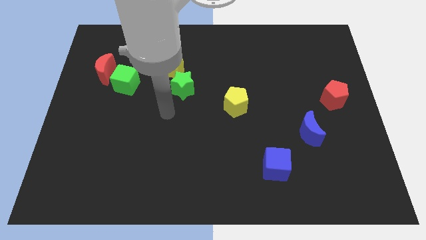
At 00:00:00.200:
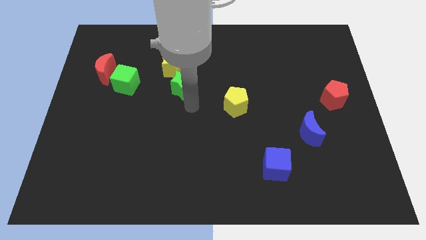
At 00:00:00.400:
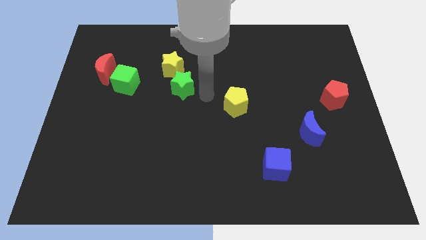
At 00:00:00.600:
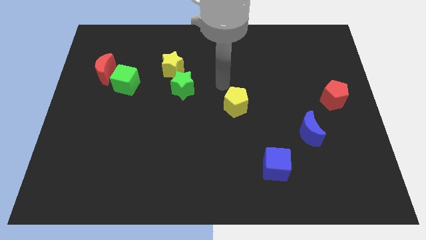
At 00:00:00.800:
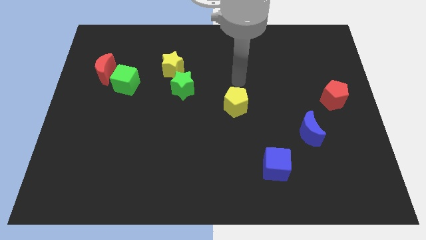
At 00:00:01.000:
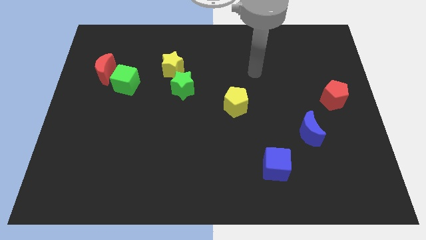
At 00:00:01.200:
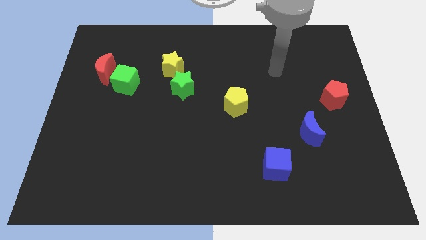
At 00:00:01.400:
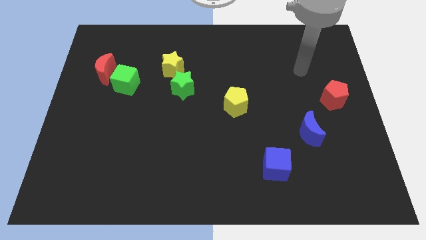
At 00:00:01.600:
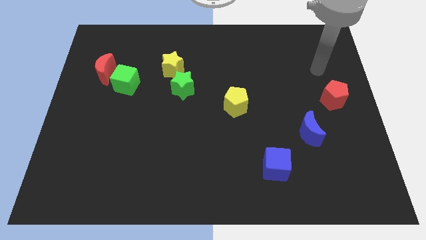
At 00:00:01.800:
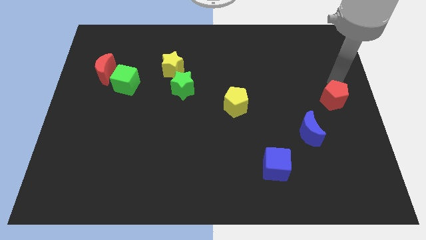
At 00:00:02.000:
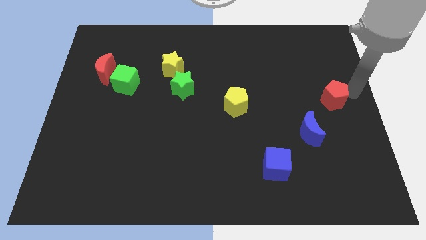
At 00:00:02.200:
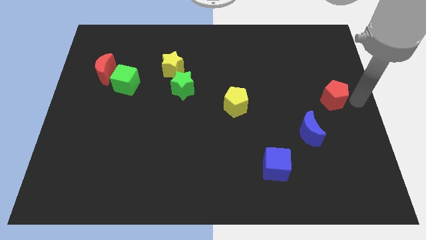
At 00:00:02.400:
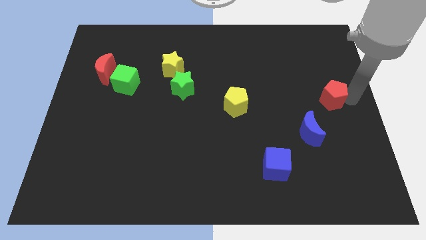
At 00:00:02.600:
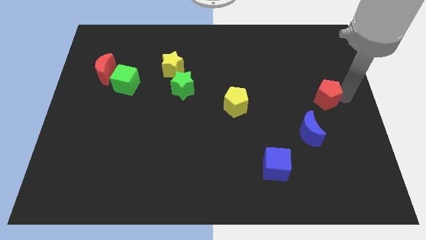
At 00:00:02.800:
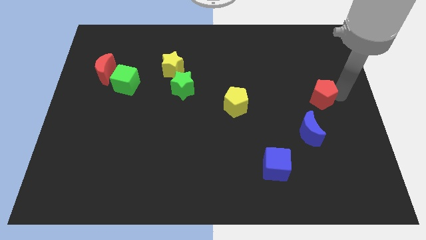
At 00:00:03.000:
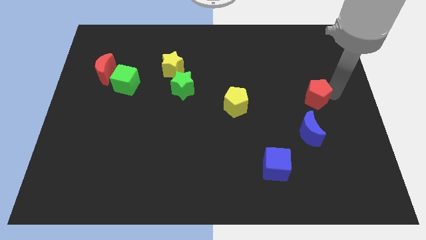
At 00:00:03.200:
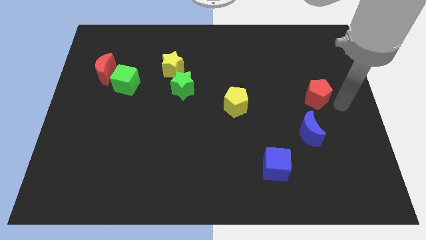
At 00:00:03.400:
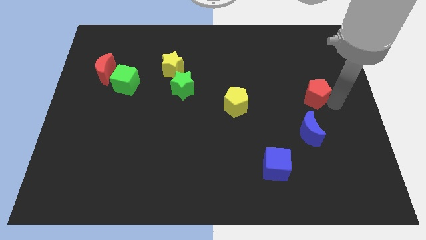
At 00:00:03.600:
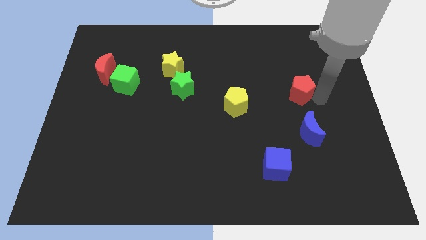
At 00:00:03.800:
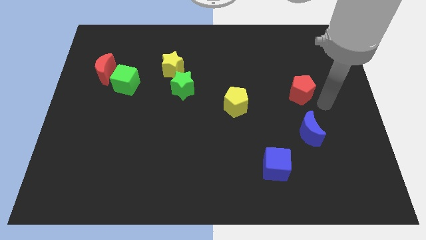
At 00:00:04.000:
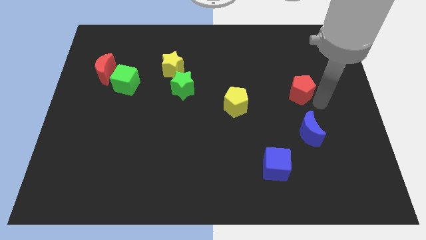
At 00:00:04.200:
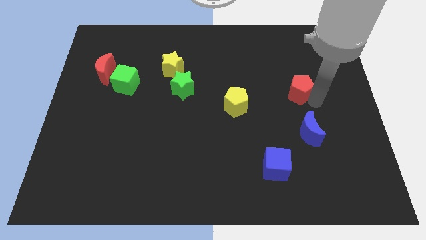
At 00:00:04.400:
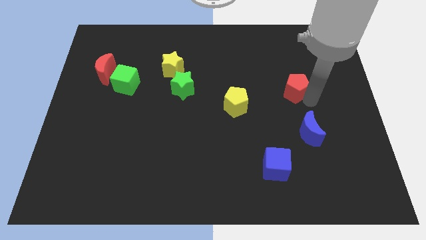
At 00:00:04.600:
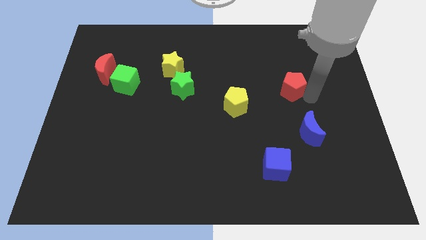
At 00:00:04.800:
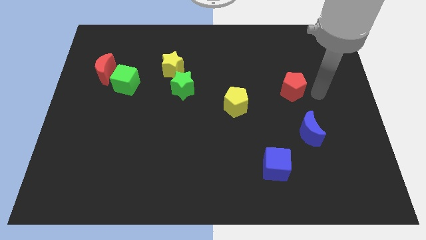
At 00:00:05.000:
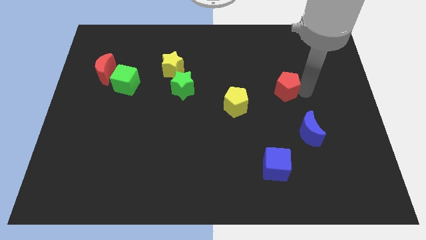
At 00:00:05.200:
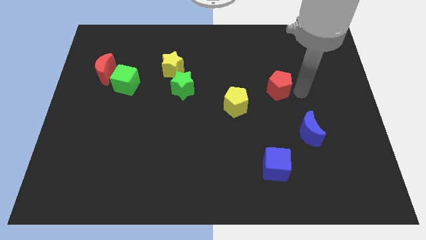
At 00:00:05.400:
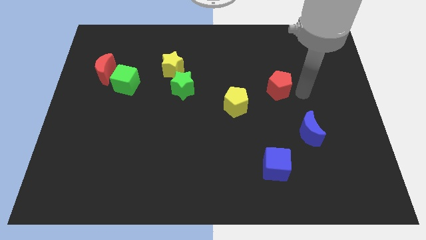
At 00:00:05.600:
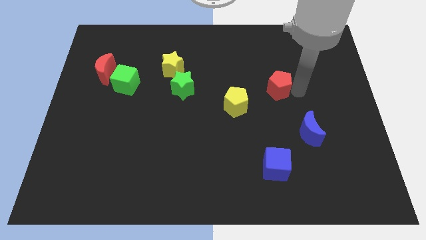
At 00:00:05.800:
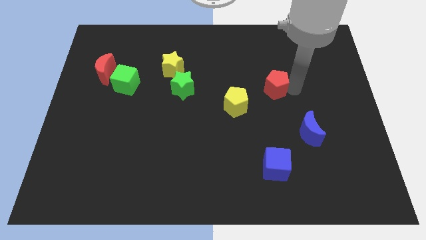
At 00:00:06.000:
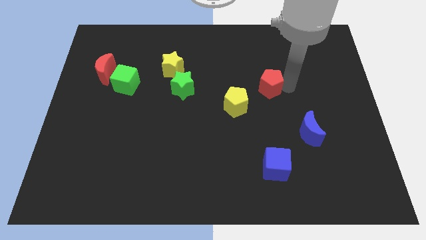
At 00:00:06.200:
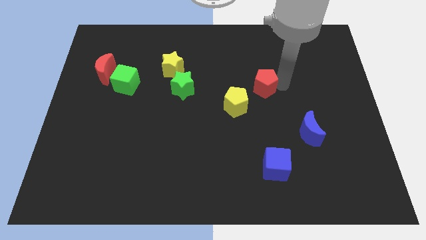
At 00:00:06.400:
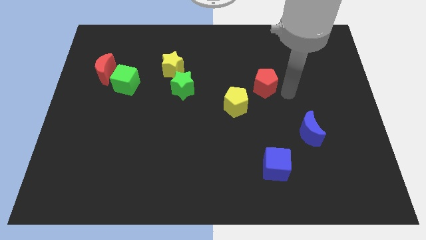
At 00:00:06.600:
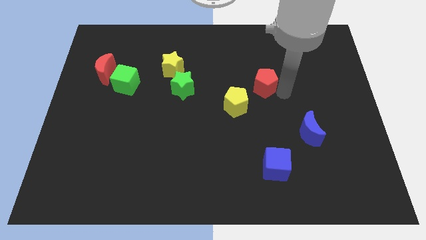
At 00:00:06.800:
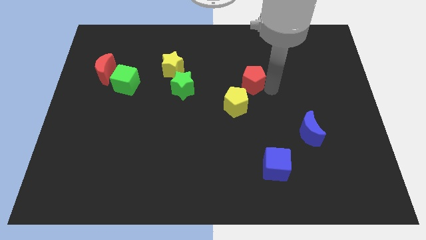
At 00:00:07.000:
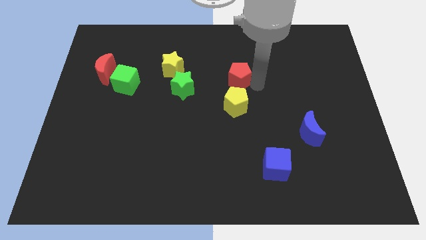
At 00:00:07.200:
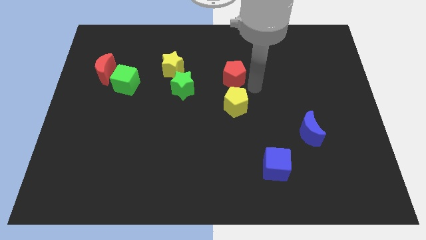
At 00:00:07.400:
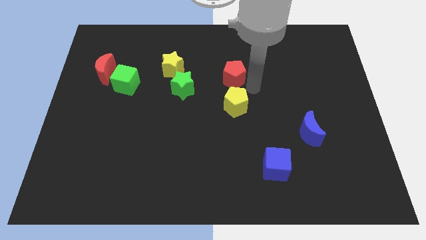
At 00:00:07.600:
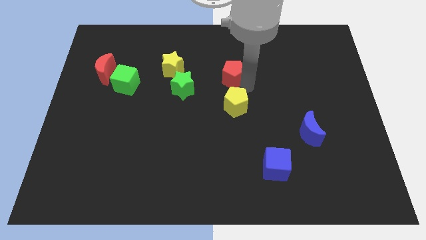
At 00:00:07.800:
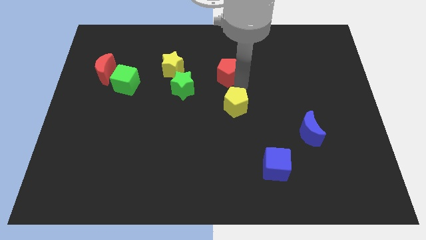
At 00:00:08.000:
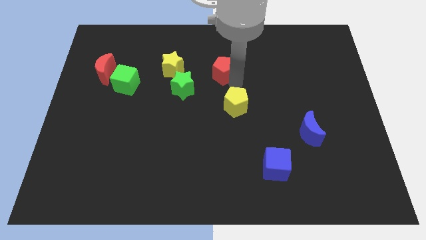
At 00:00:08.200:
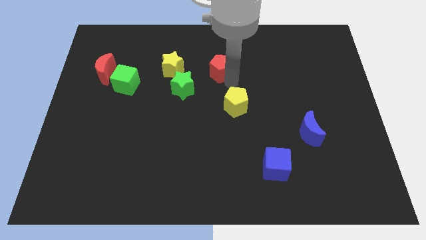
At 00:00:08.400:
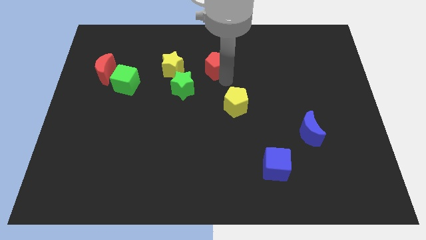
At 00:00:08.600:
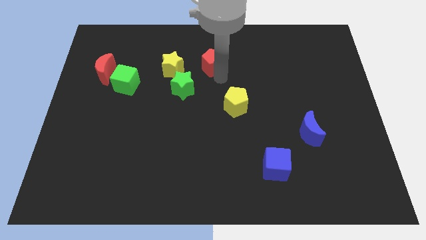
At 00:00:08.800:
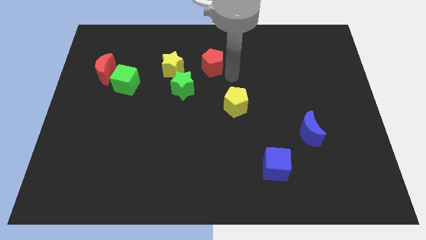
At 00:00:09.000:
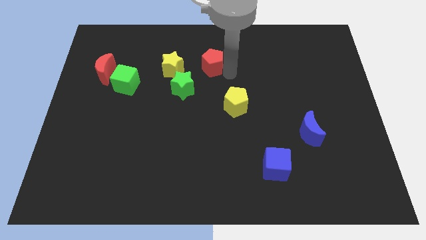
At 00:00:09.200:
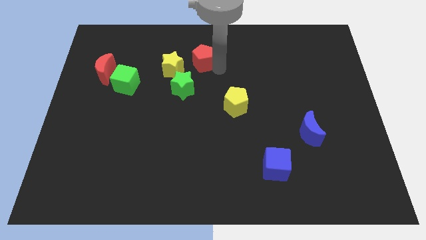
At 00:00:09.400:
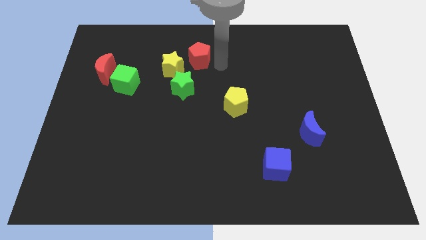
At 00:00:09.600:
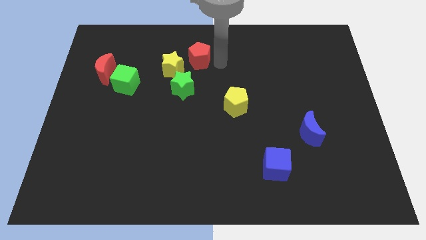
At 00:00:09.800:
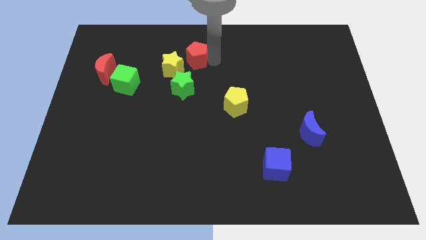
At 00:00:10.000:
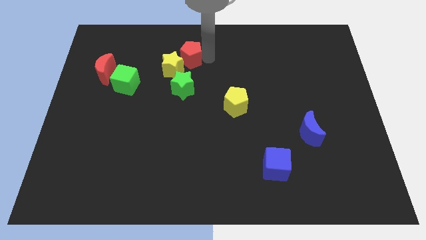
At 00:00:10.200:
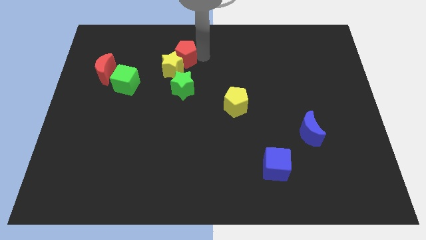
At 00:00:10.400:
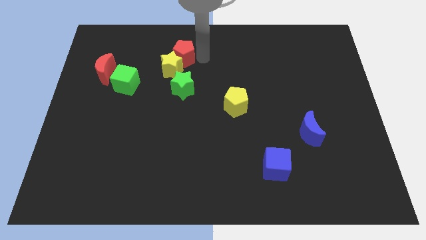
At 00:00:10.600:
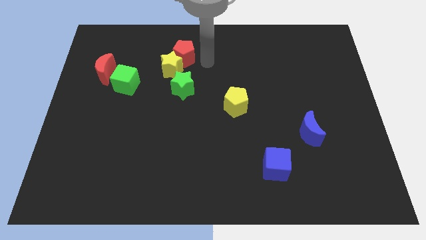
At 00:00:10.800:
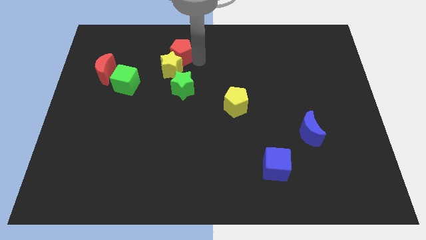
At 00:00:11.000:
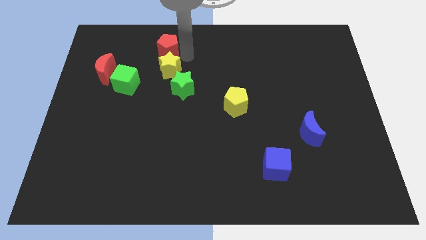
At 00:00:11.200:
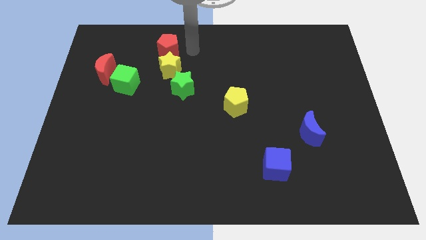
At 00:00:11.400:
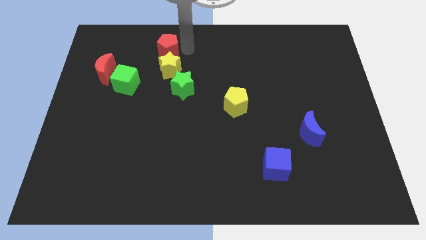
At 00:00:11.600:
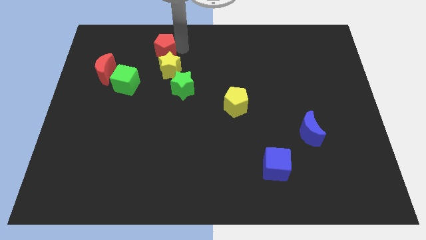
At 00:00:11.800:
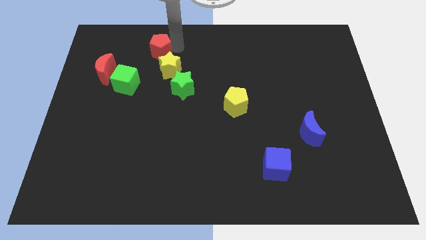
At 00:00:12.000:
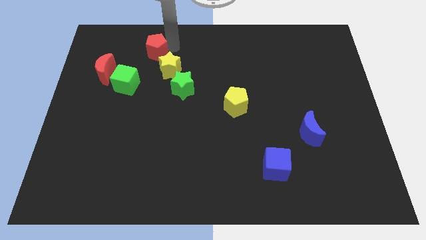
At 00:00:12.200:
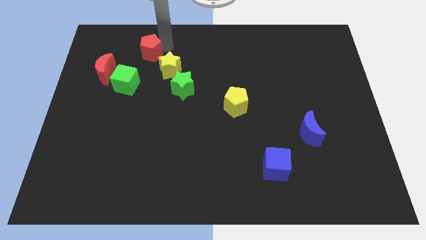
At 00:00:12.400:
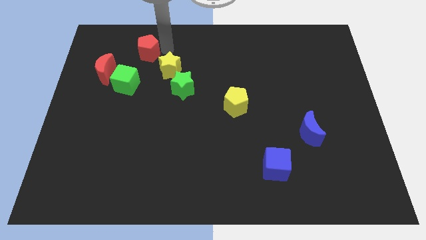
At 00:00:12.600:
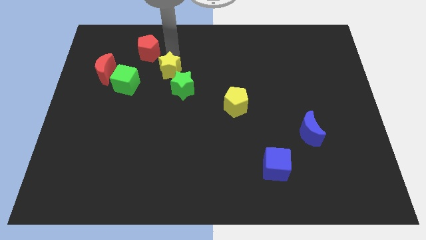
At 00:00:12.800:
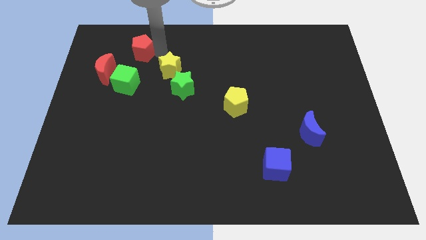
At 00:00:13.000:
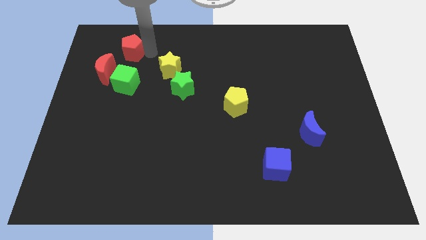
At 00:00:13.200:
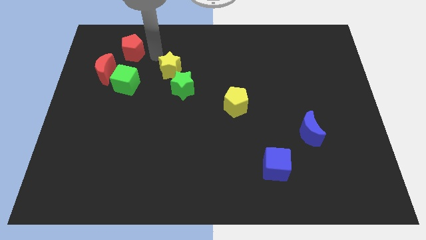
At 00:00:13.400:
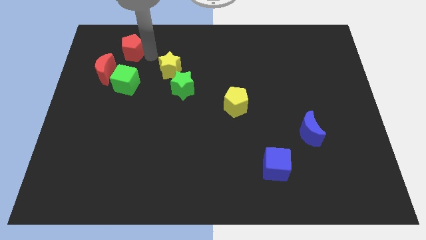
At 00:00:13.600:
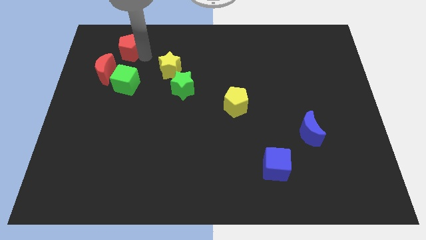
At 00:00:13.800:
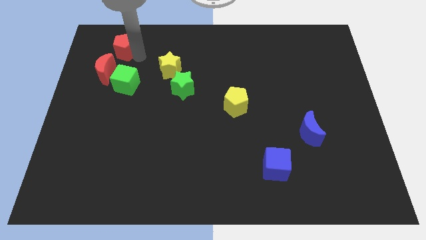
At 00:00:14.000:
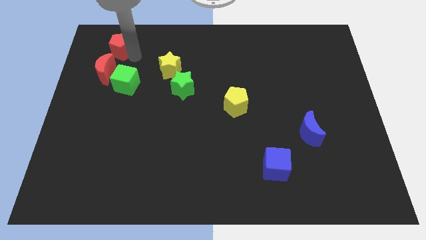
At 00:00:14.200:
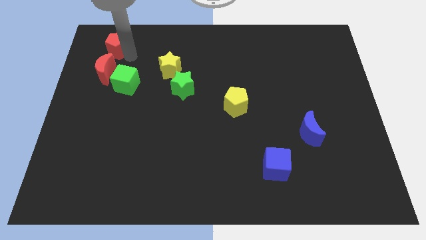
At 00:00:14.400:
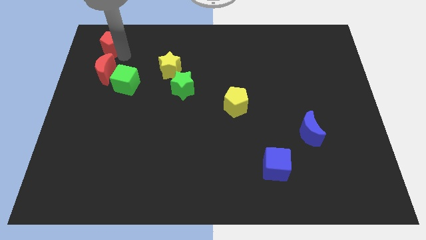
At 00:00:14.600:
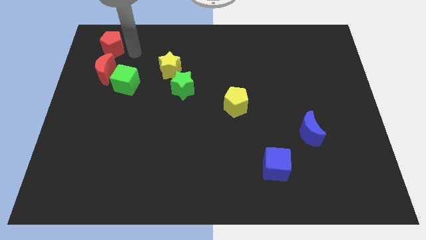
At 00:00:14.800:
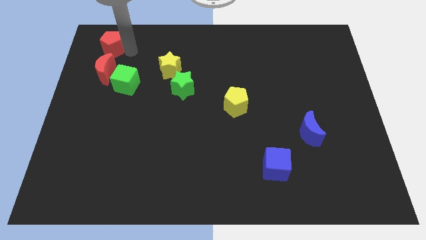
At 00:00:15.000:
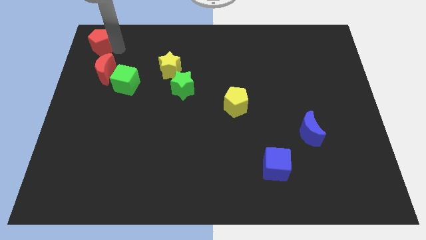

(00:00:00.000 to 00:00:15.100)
put the red pentagon to the top left corner
